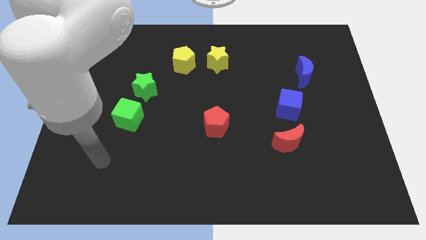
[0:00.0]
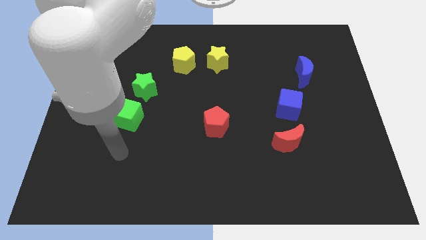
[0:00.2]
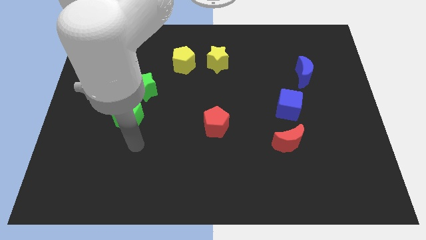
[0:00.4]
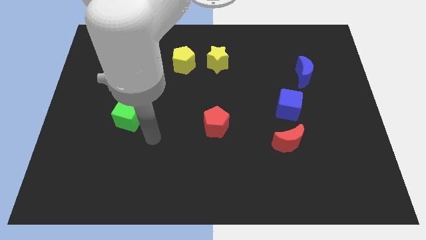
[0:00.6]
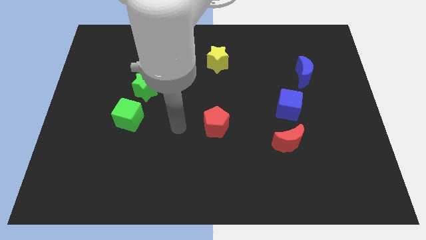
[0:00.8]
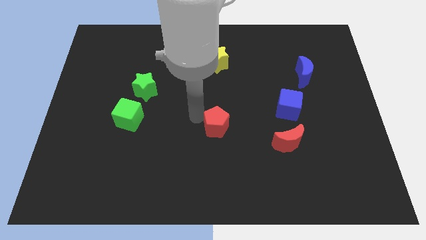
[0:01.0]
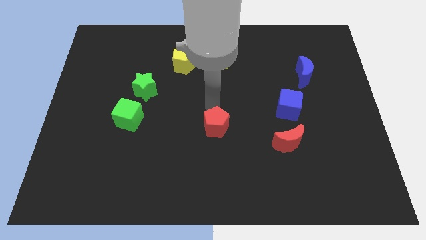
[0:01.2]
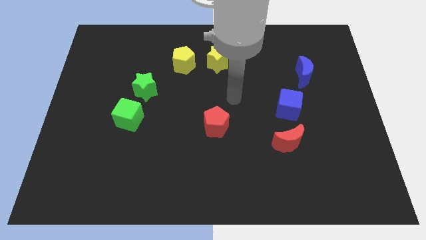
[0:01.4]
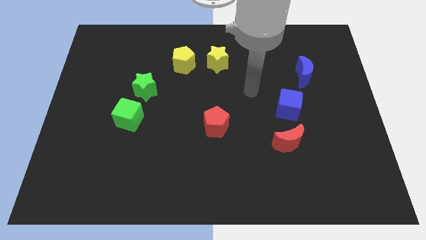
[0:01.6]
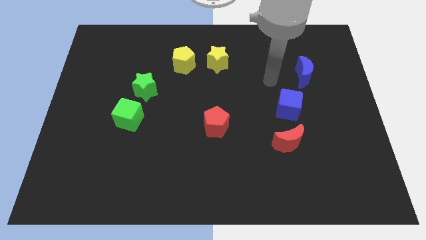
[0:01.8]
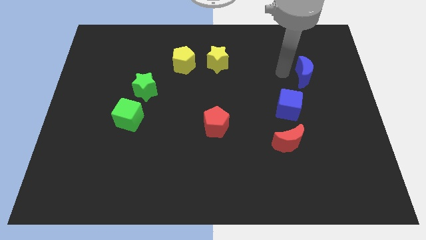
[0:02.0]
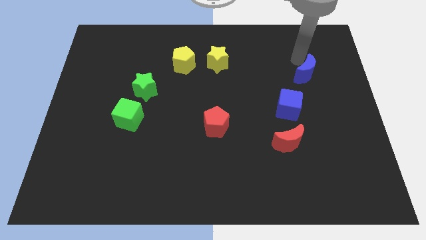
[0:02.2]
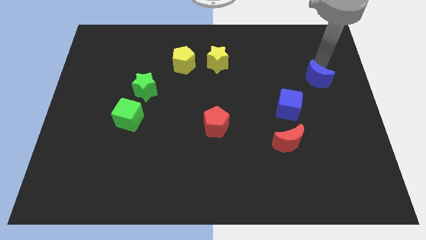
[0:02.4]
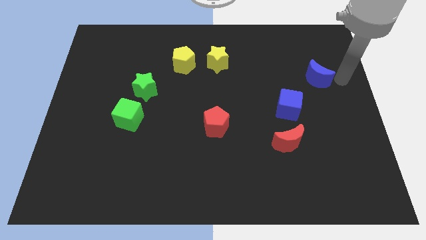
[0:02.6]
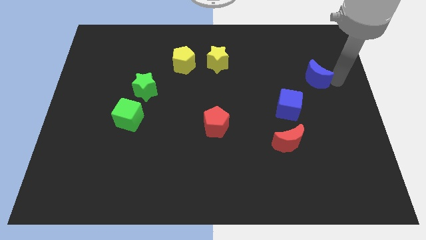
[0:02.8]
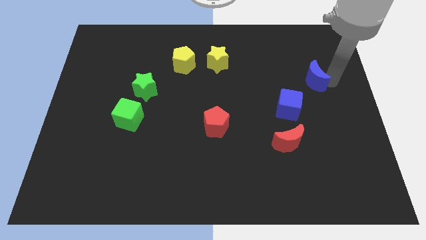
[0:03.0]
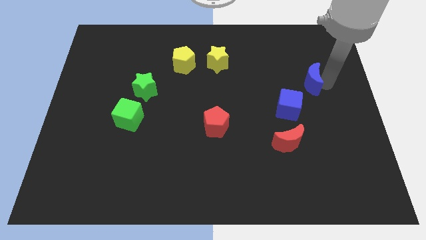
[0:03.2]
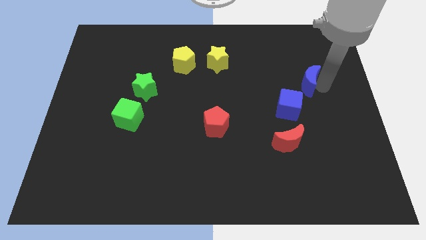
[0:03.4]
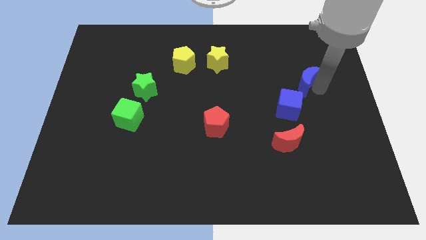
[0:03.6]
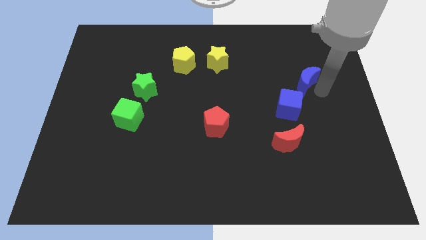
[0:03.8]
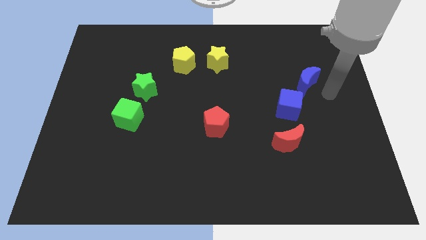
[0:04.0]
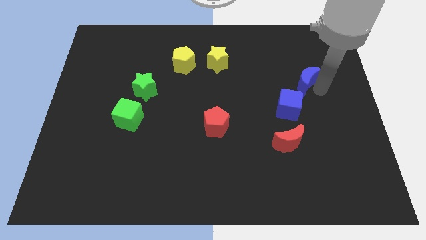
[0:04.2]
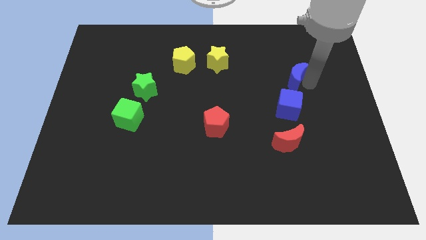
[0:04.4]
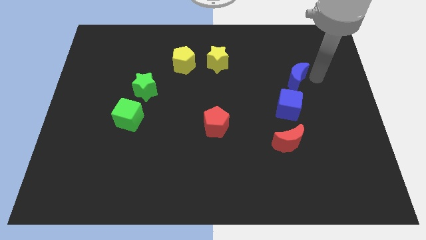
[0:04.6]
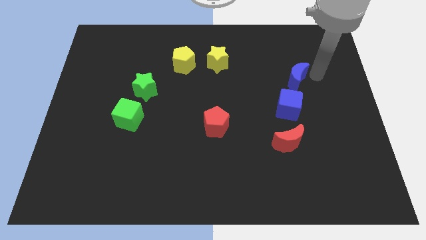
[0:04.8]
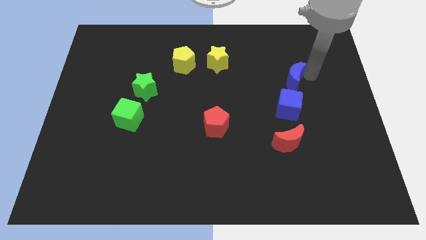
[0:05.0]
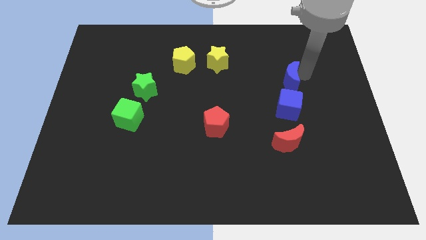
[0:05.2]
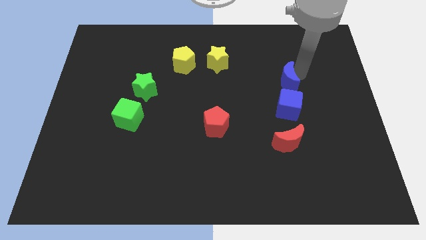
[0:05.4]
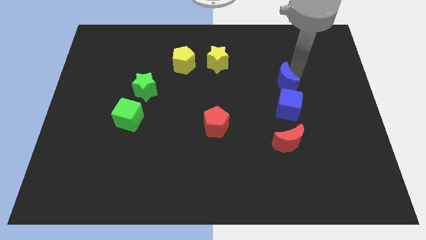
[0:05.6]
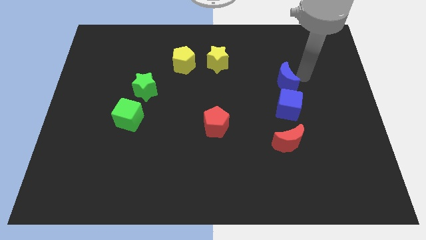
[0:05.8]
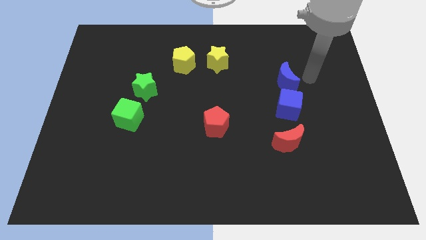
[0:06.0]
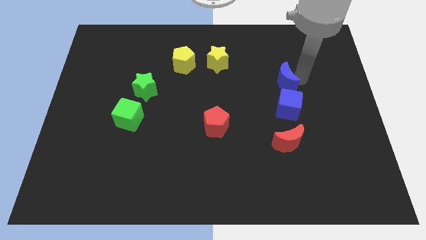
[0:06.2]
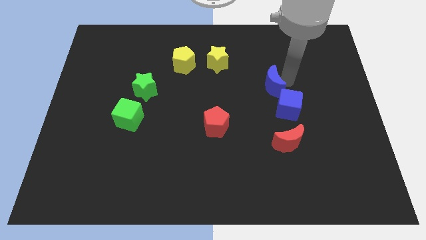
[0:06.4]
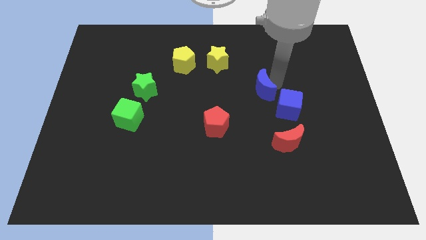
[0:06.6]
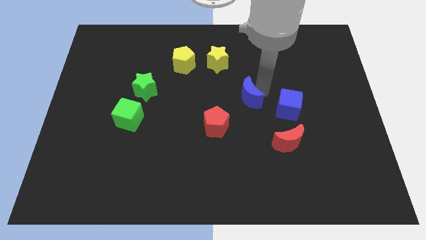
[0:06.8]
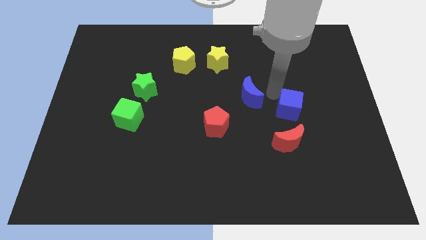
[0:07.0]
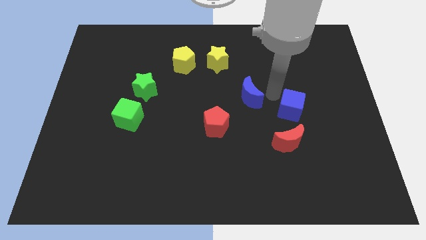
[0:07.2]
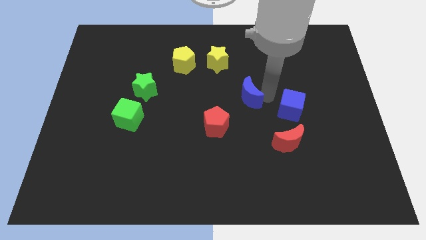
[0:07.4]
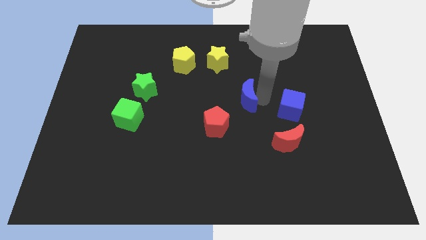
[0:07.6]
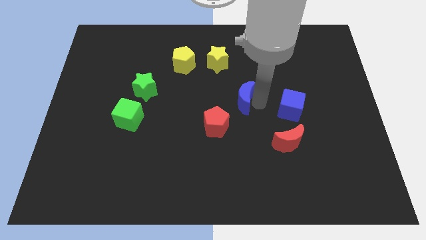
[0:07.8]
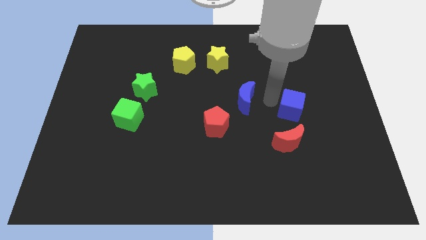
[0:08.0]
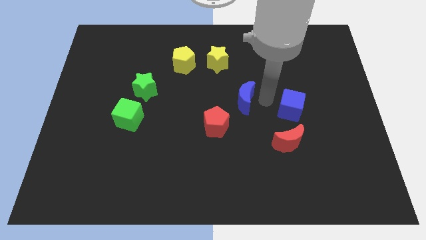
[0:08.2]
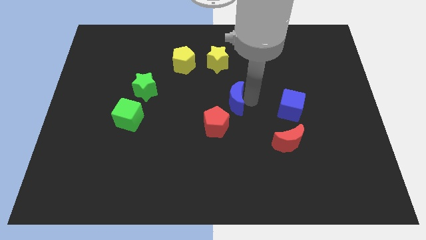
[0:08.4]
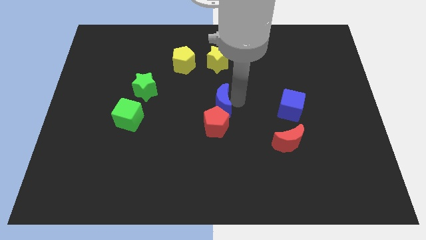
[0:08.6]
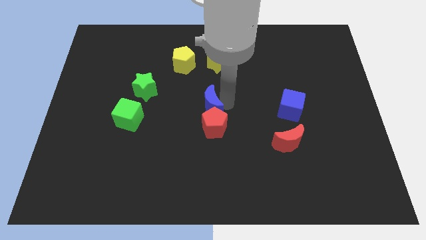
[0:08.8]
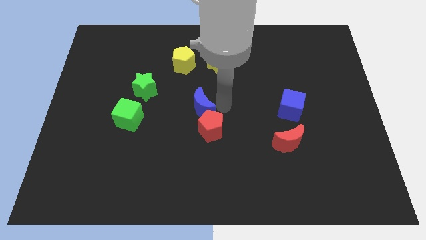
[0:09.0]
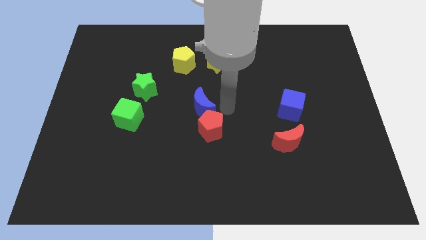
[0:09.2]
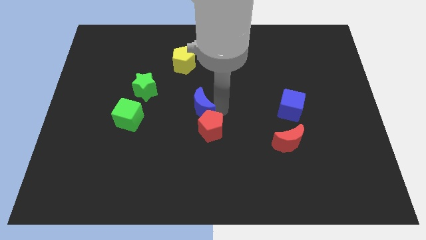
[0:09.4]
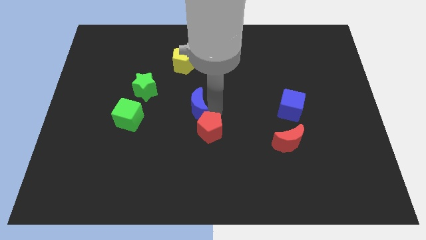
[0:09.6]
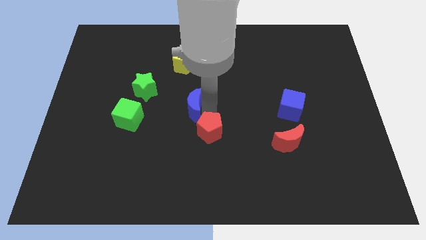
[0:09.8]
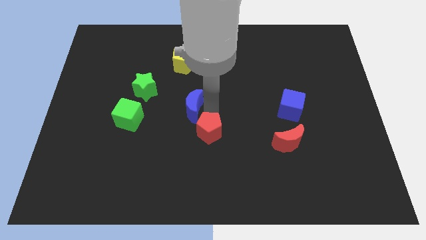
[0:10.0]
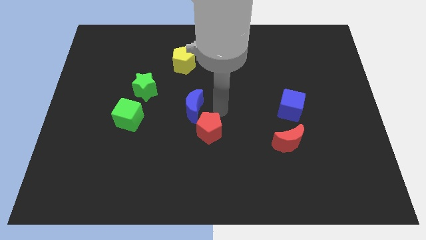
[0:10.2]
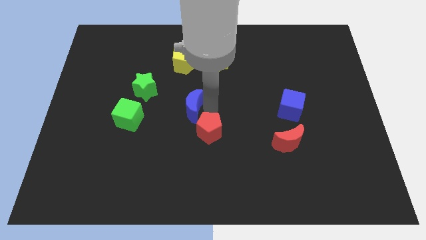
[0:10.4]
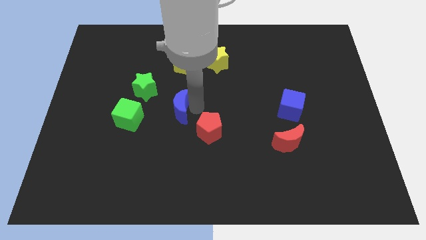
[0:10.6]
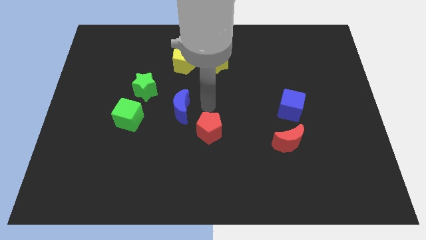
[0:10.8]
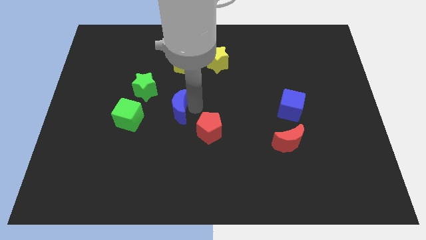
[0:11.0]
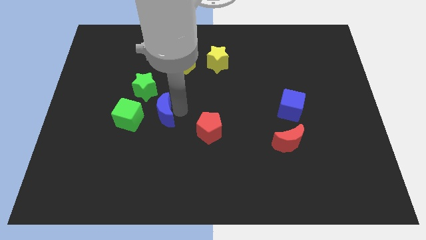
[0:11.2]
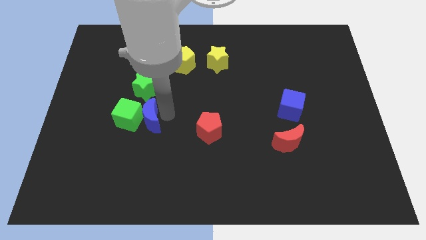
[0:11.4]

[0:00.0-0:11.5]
move the blue moon towards the green cube

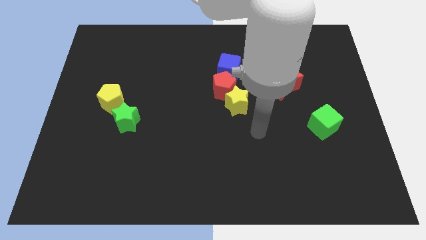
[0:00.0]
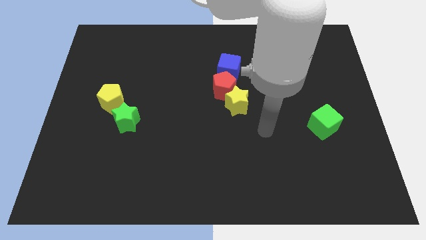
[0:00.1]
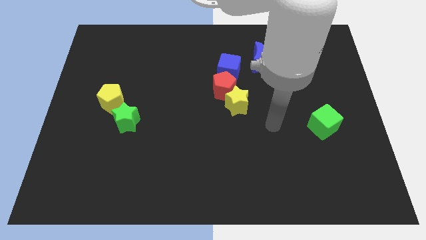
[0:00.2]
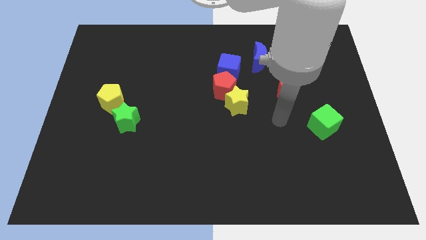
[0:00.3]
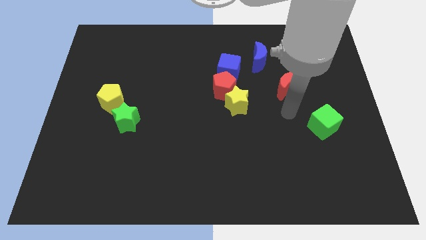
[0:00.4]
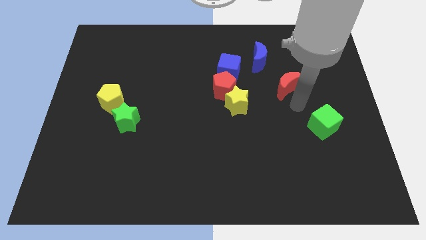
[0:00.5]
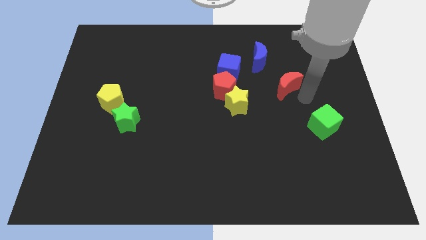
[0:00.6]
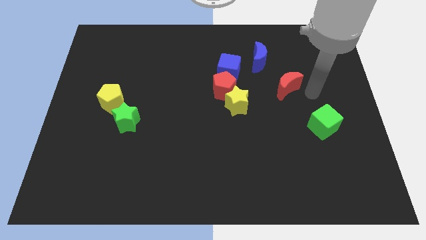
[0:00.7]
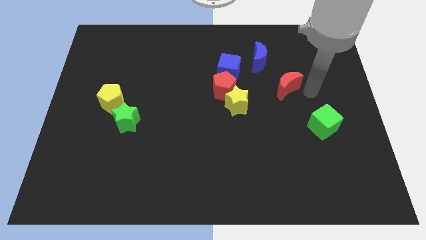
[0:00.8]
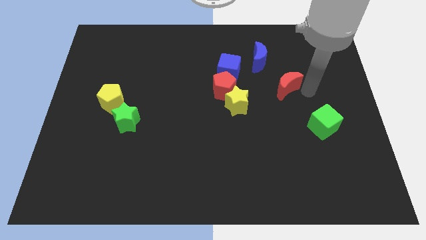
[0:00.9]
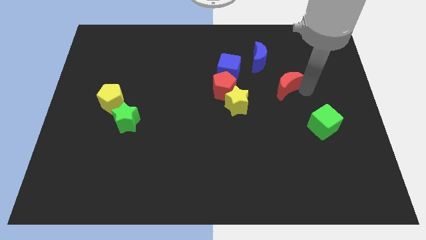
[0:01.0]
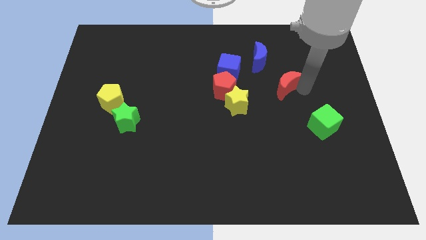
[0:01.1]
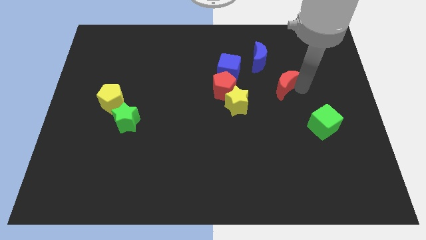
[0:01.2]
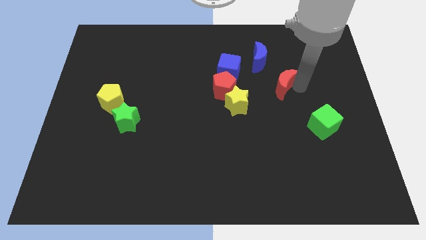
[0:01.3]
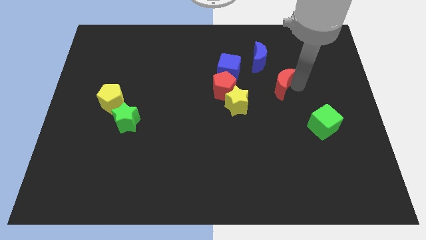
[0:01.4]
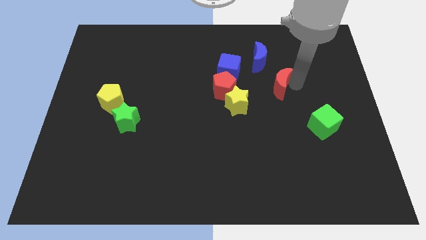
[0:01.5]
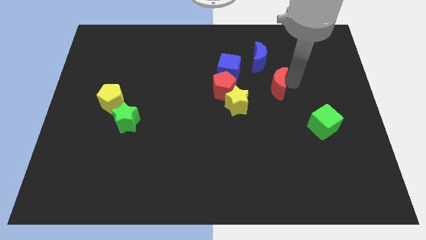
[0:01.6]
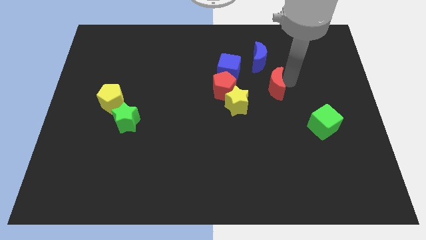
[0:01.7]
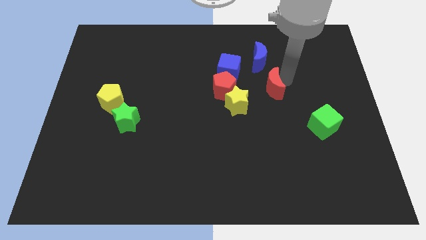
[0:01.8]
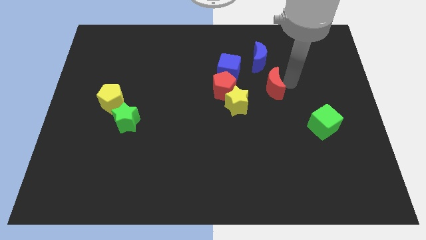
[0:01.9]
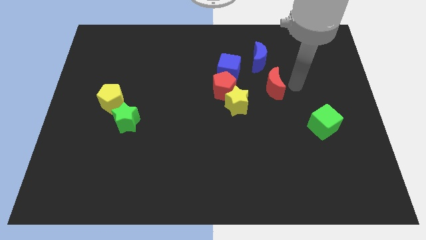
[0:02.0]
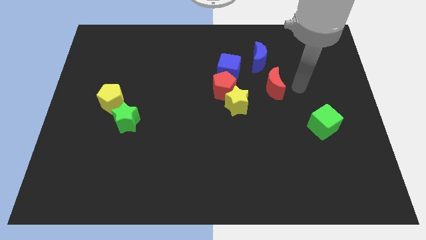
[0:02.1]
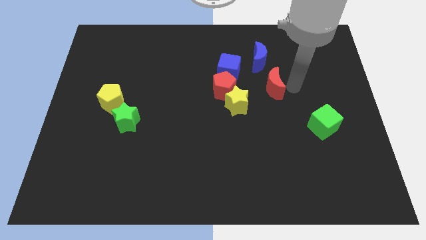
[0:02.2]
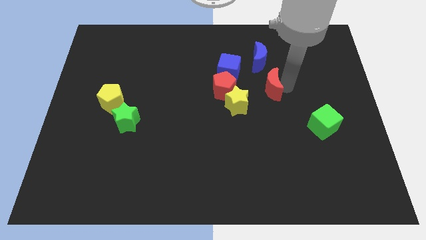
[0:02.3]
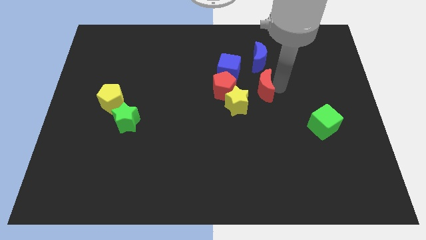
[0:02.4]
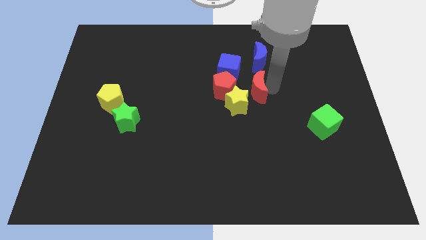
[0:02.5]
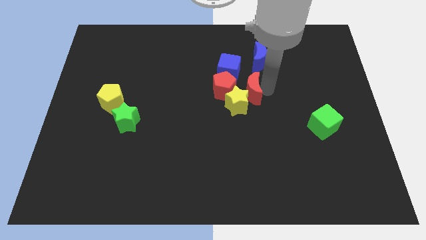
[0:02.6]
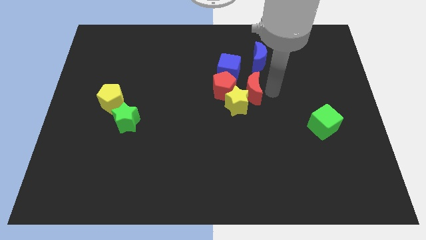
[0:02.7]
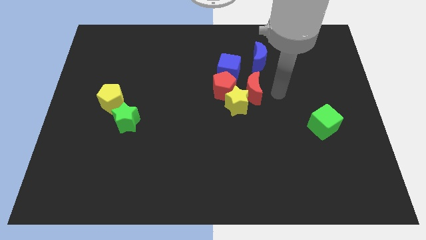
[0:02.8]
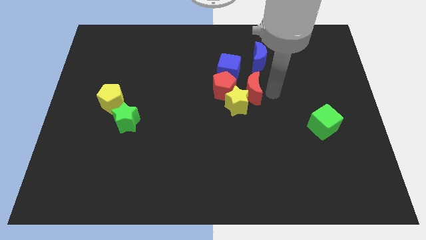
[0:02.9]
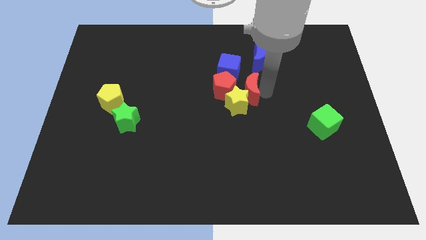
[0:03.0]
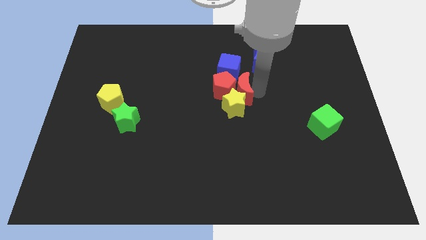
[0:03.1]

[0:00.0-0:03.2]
move the red moon close to the red pentagon
